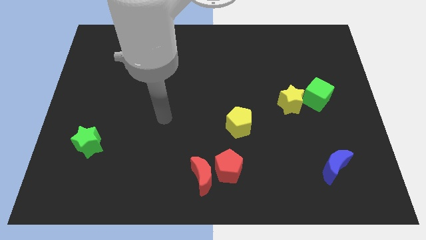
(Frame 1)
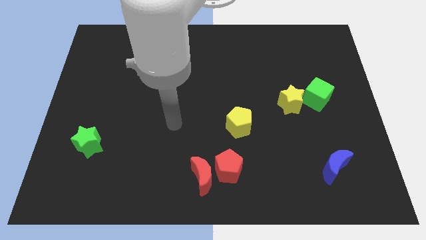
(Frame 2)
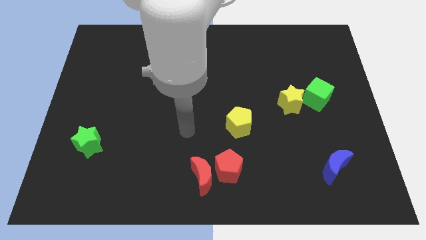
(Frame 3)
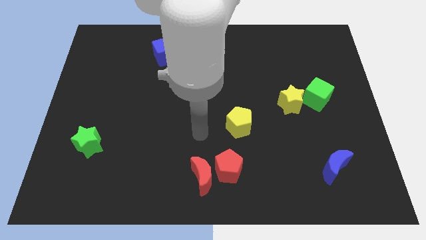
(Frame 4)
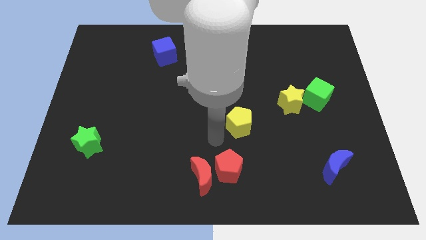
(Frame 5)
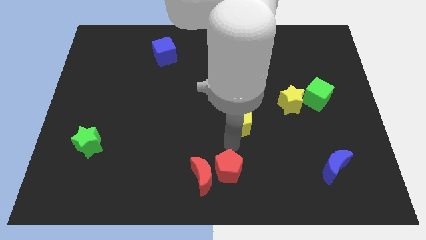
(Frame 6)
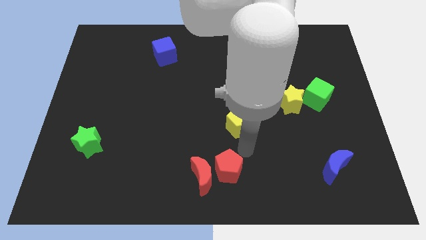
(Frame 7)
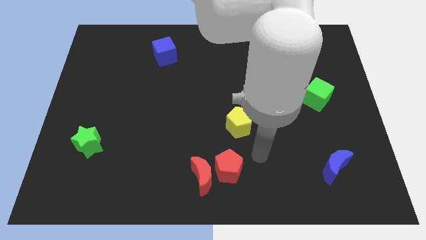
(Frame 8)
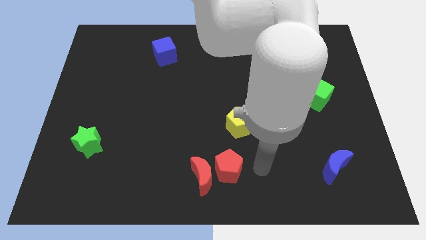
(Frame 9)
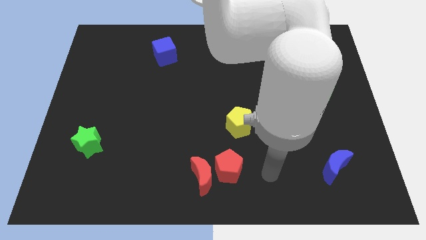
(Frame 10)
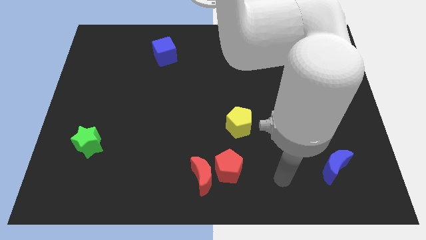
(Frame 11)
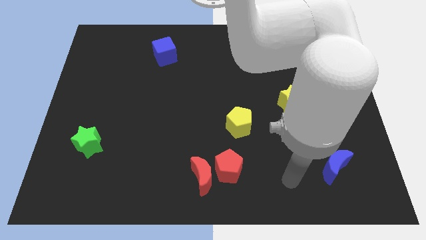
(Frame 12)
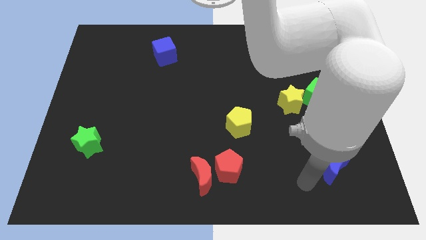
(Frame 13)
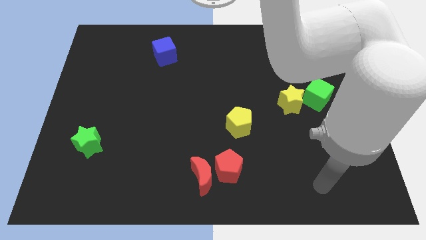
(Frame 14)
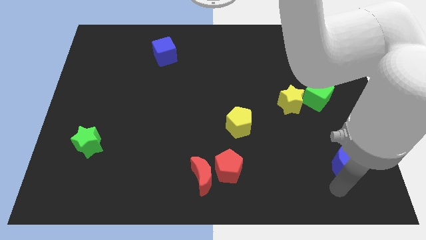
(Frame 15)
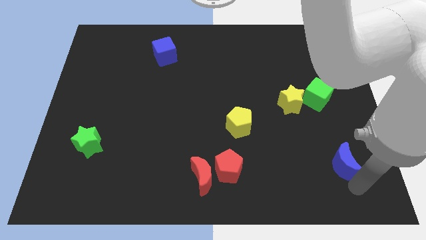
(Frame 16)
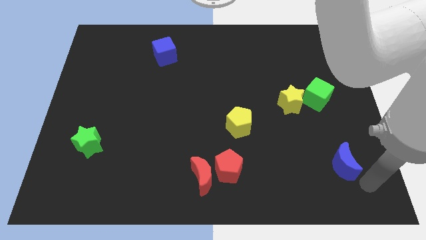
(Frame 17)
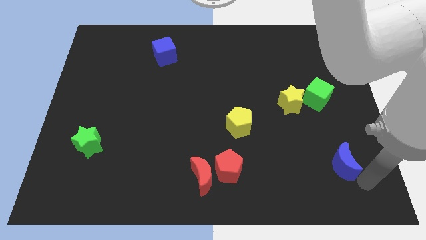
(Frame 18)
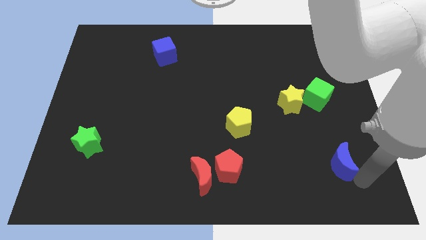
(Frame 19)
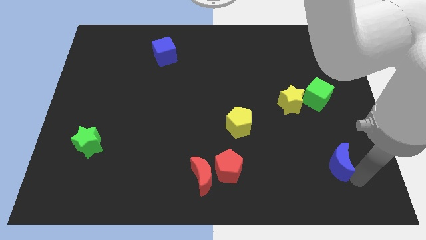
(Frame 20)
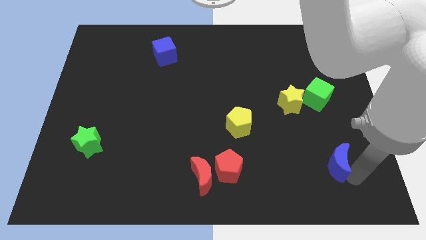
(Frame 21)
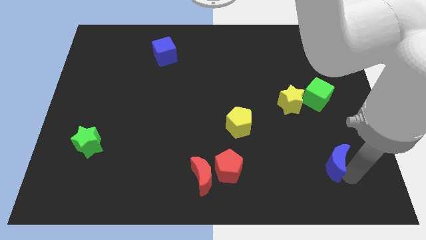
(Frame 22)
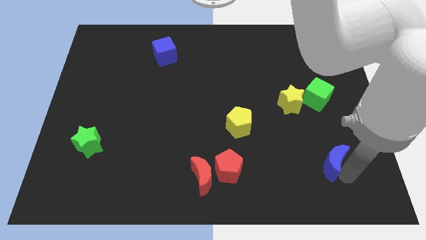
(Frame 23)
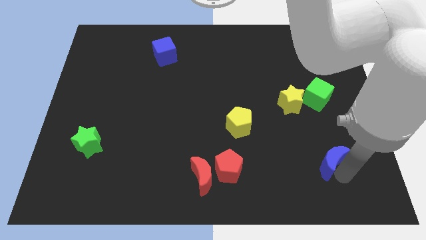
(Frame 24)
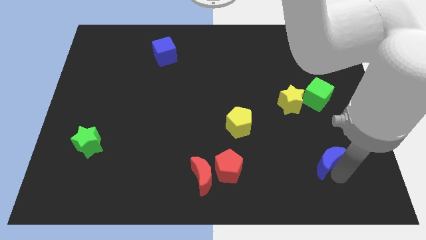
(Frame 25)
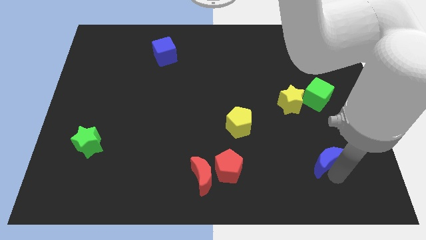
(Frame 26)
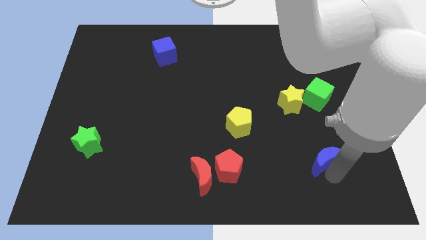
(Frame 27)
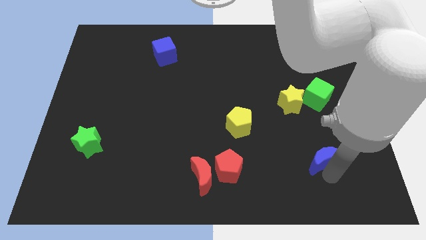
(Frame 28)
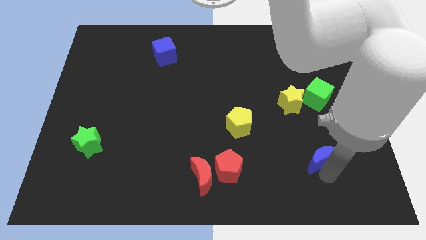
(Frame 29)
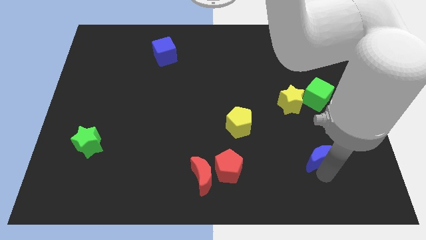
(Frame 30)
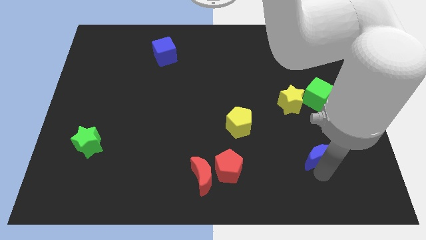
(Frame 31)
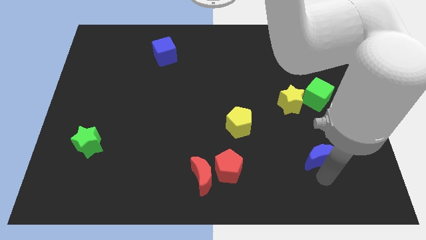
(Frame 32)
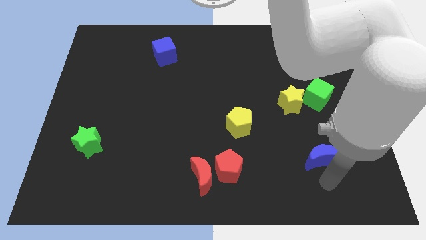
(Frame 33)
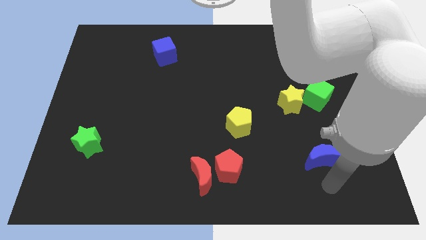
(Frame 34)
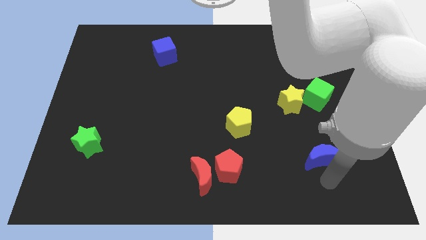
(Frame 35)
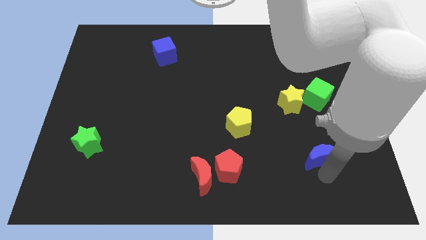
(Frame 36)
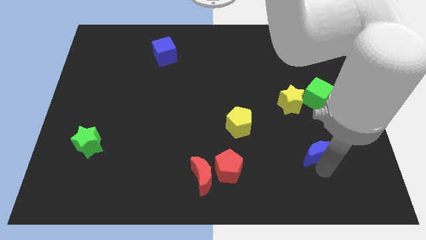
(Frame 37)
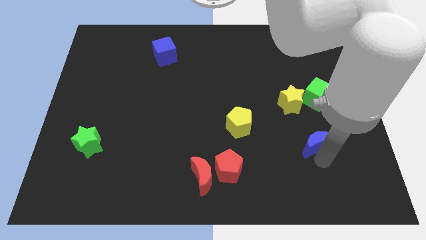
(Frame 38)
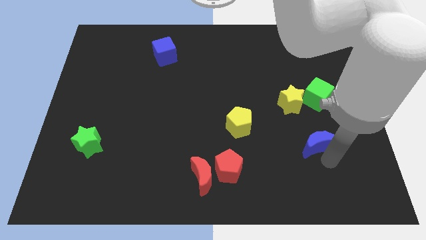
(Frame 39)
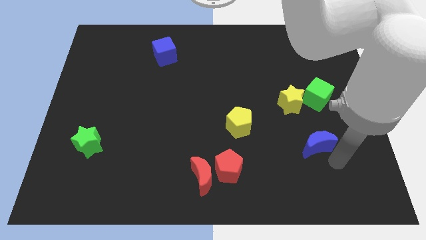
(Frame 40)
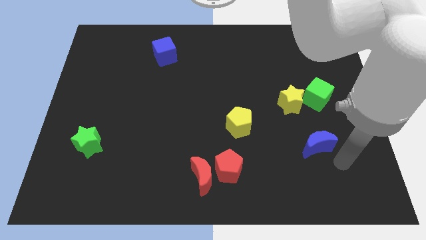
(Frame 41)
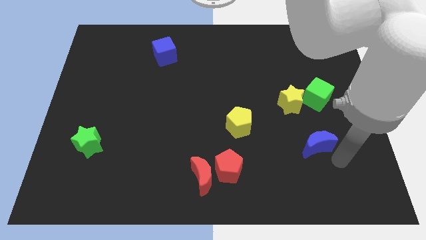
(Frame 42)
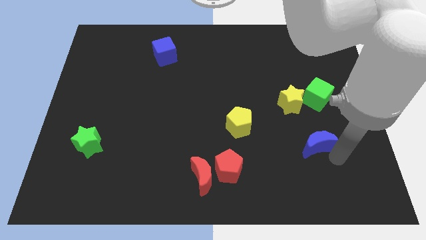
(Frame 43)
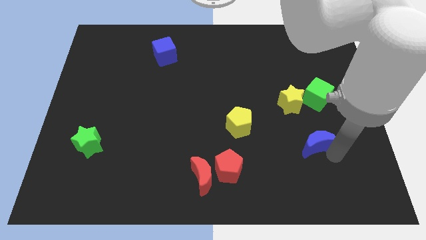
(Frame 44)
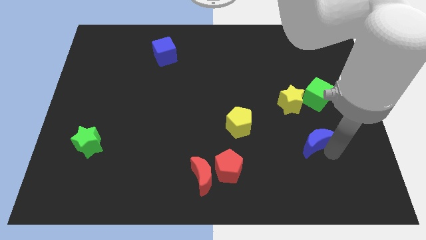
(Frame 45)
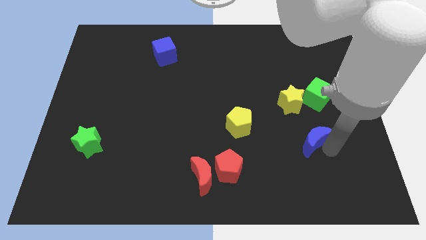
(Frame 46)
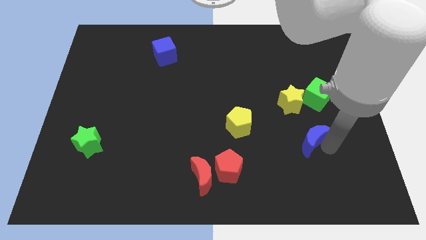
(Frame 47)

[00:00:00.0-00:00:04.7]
push the blue moon slightly upwards and then left

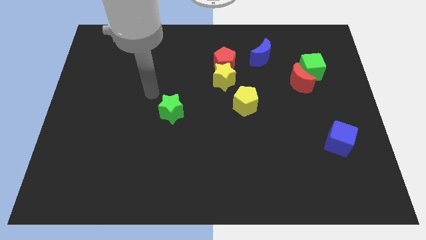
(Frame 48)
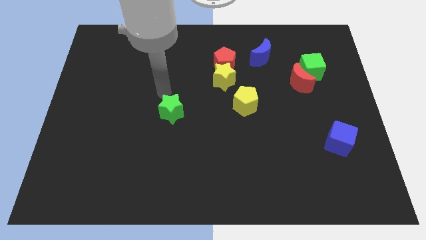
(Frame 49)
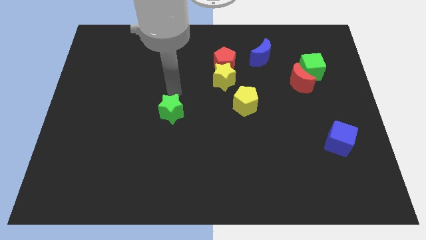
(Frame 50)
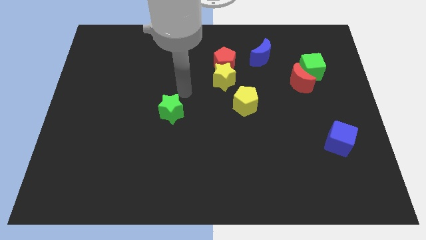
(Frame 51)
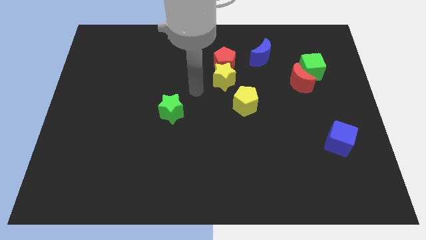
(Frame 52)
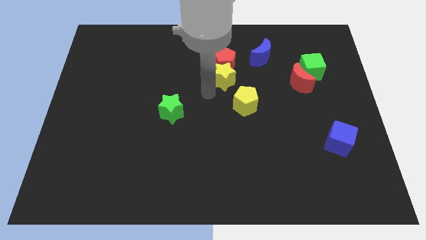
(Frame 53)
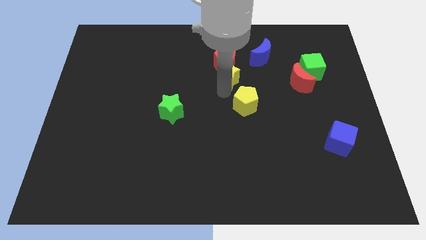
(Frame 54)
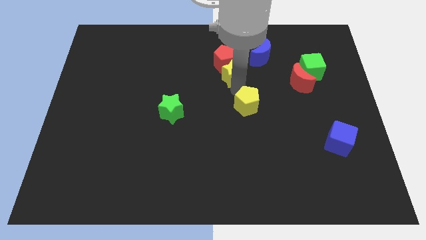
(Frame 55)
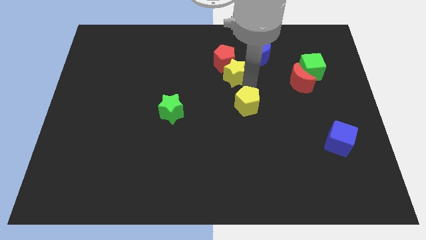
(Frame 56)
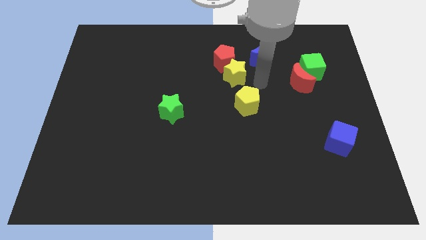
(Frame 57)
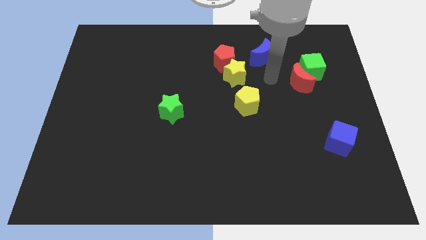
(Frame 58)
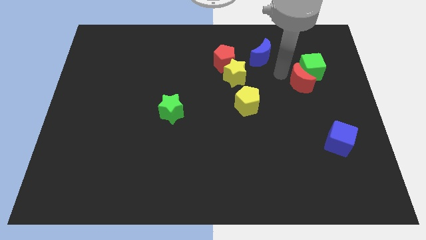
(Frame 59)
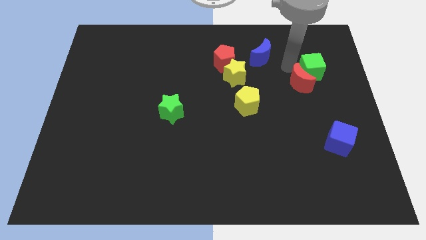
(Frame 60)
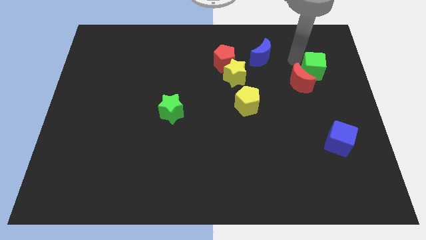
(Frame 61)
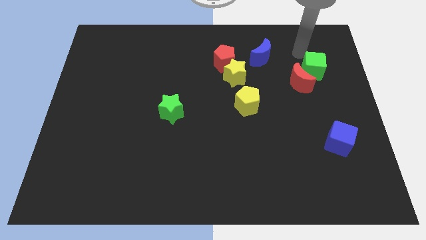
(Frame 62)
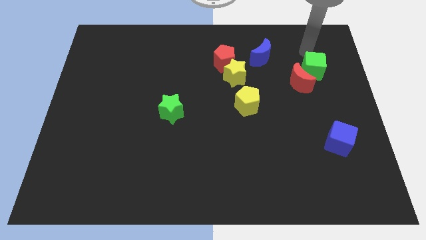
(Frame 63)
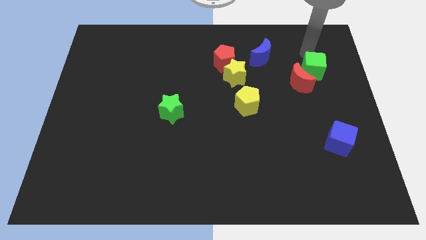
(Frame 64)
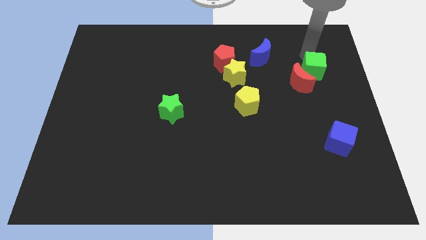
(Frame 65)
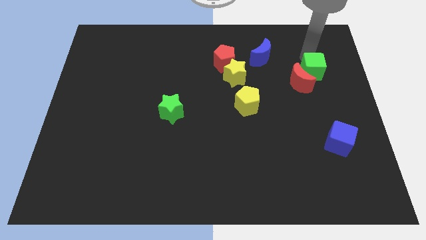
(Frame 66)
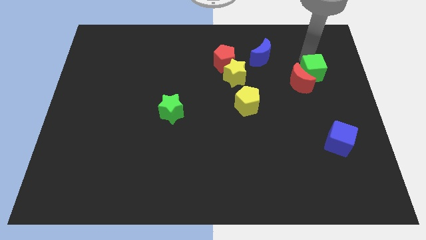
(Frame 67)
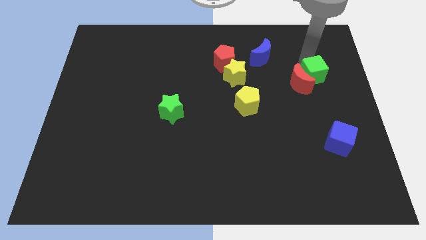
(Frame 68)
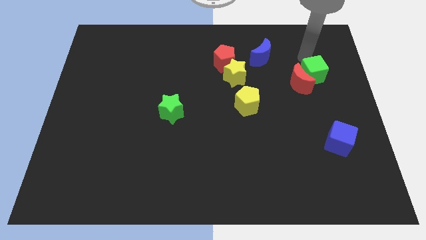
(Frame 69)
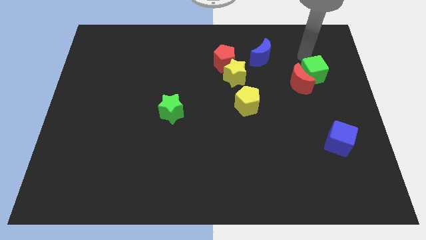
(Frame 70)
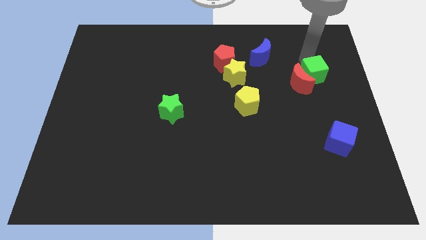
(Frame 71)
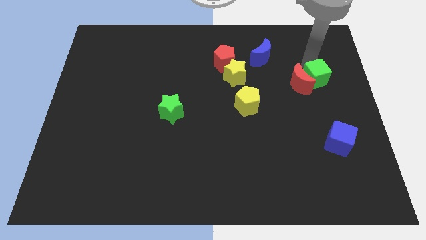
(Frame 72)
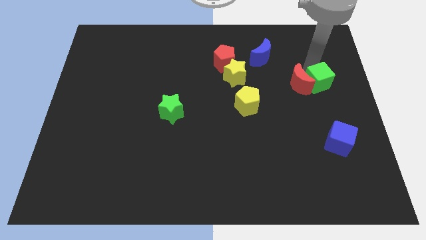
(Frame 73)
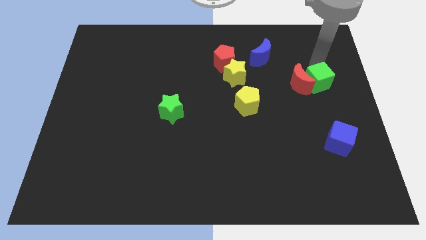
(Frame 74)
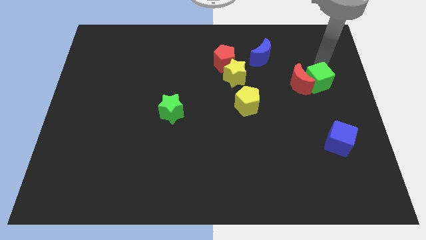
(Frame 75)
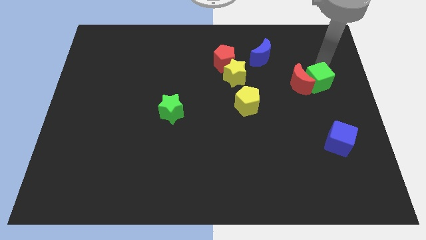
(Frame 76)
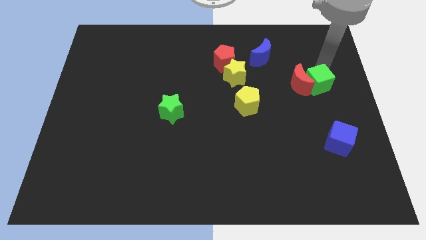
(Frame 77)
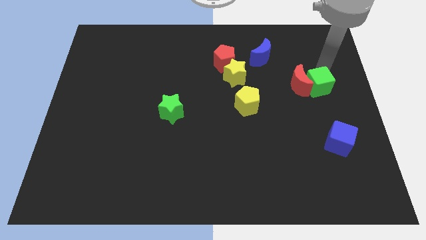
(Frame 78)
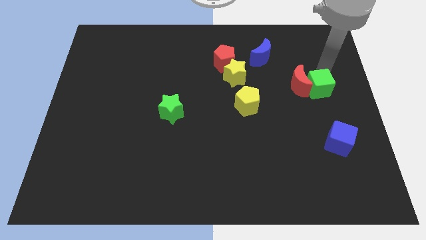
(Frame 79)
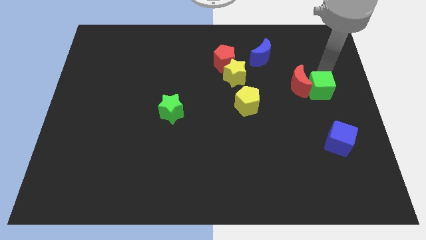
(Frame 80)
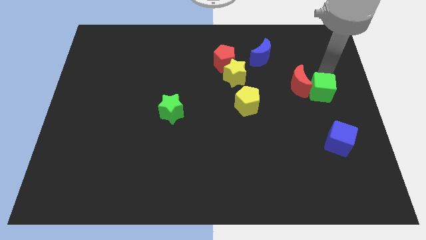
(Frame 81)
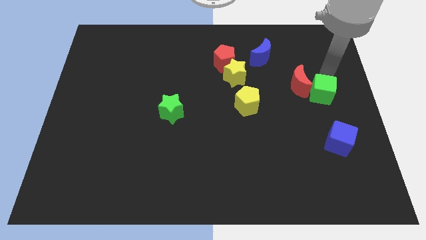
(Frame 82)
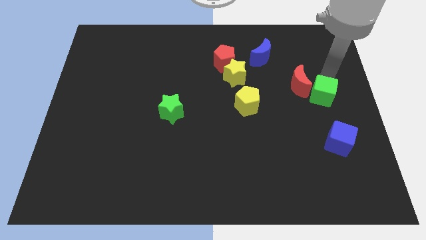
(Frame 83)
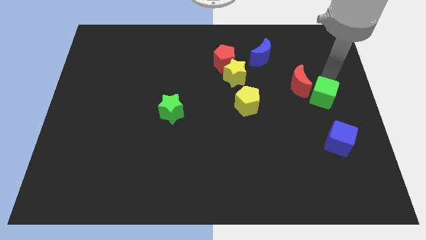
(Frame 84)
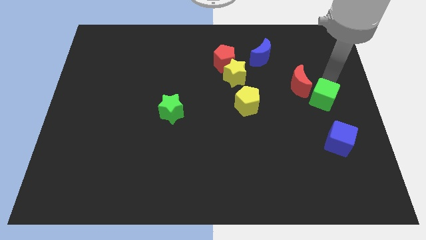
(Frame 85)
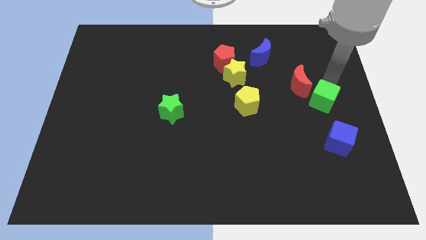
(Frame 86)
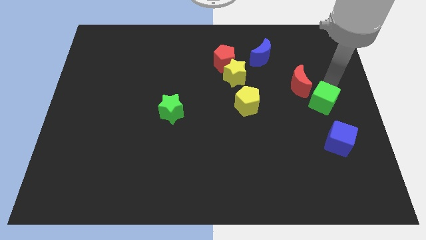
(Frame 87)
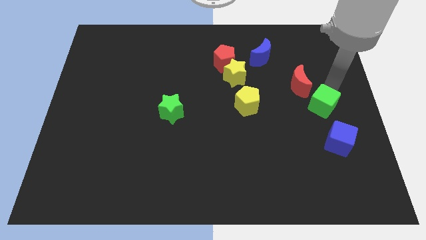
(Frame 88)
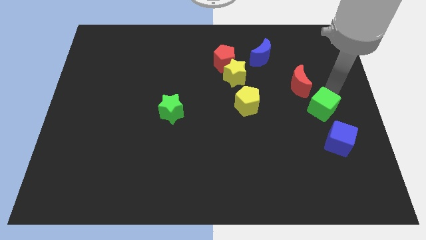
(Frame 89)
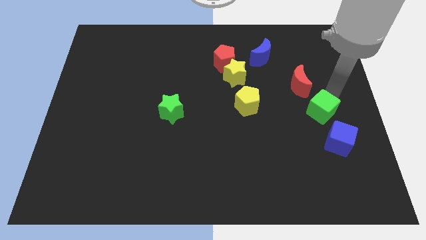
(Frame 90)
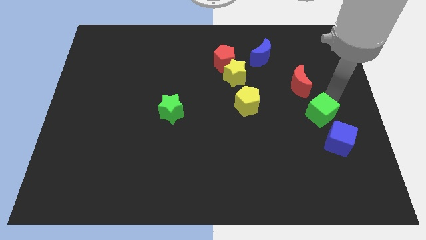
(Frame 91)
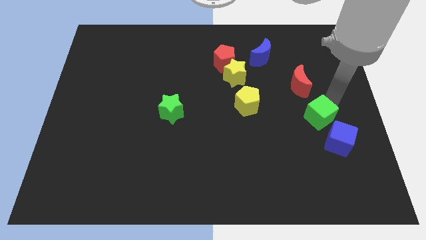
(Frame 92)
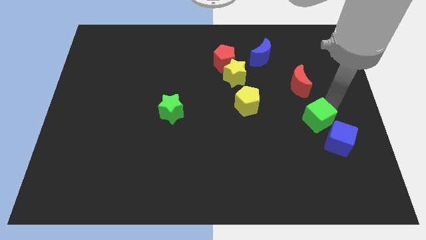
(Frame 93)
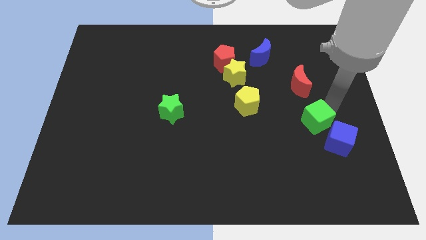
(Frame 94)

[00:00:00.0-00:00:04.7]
slide the green cube a little bit down and left diagonally
